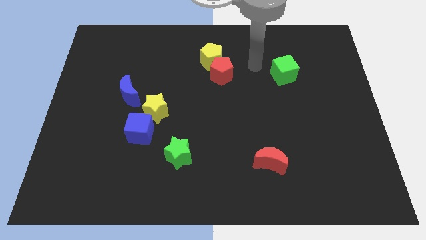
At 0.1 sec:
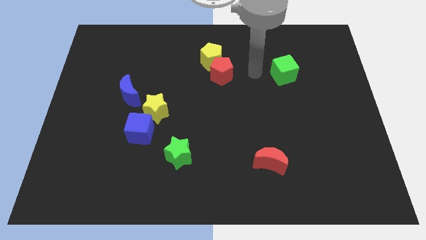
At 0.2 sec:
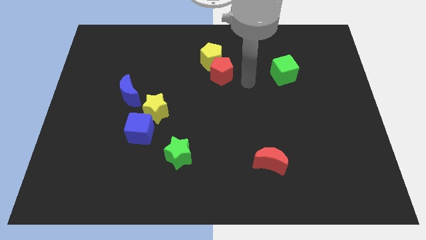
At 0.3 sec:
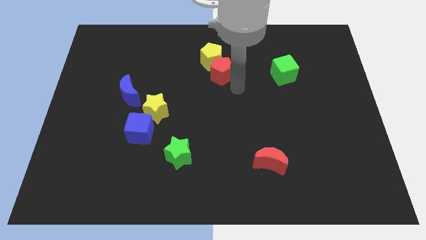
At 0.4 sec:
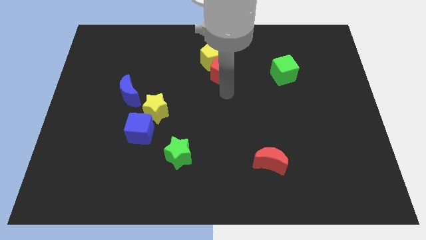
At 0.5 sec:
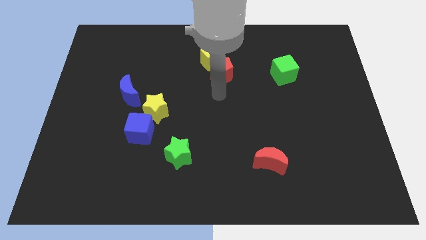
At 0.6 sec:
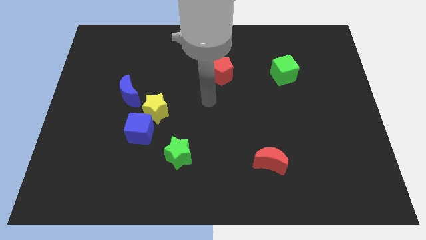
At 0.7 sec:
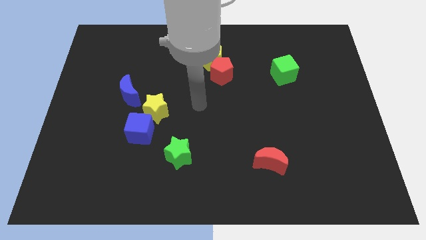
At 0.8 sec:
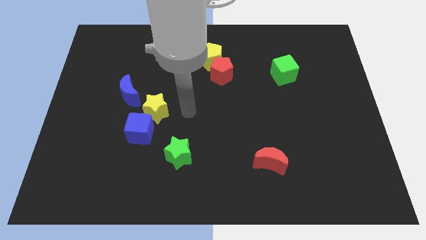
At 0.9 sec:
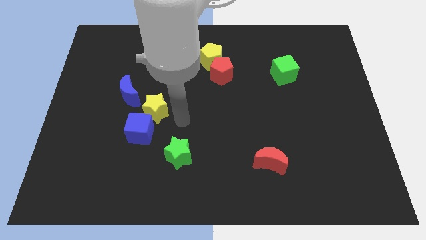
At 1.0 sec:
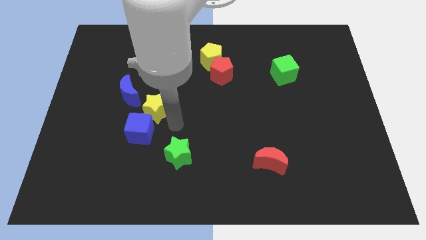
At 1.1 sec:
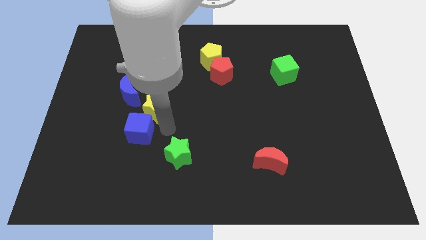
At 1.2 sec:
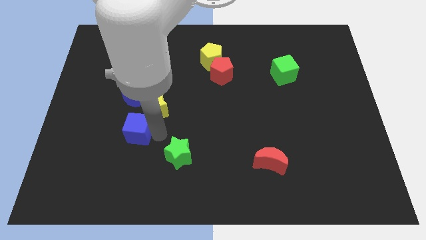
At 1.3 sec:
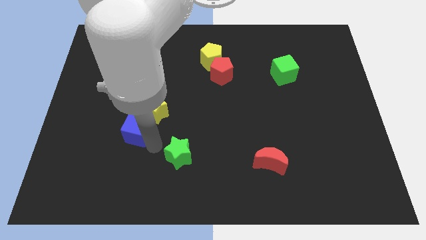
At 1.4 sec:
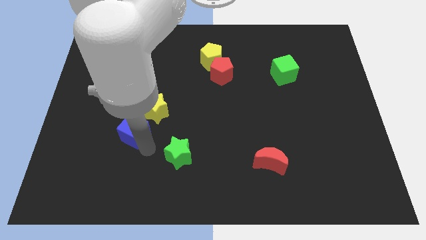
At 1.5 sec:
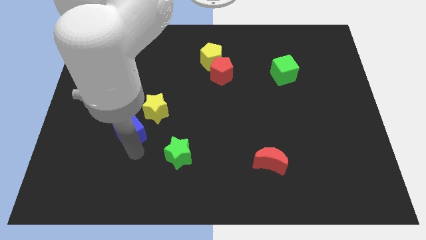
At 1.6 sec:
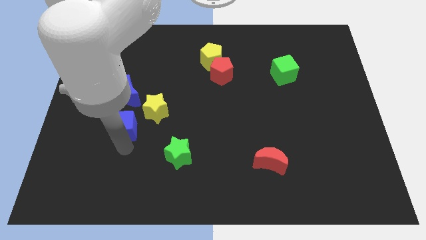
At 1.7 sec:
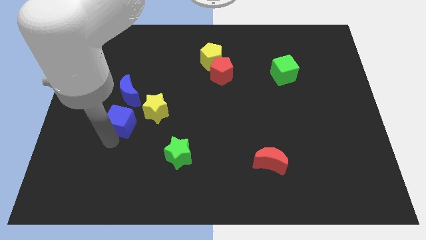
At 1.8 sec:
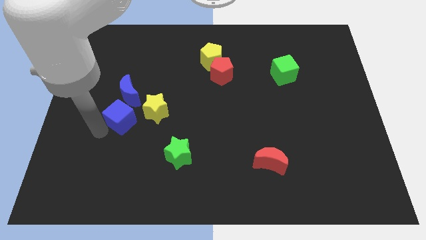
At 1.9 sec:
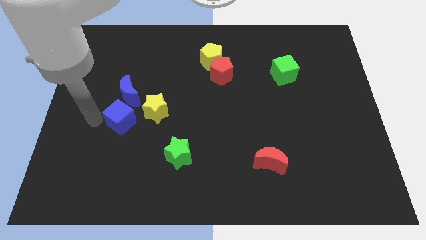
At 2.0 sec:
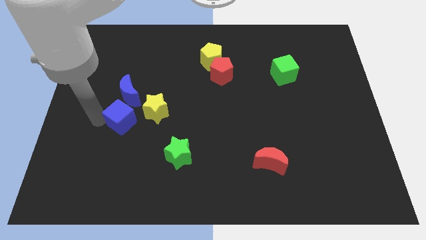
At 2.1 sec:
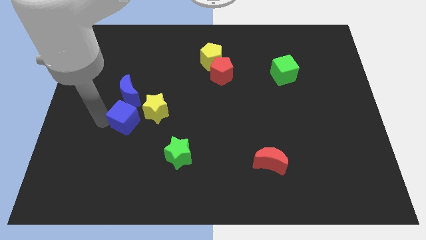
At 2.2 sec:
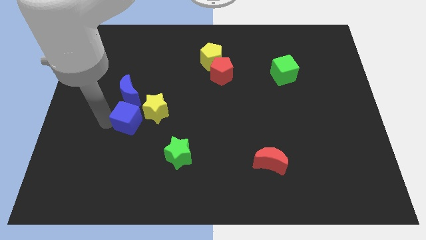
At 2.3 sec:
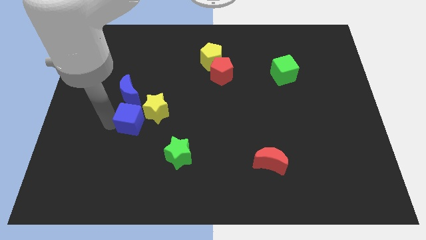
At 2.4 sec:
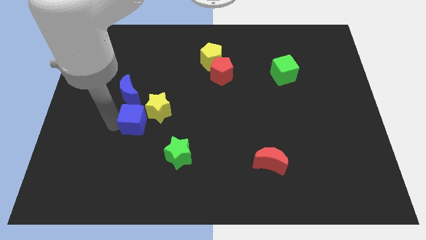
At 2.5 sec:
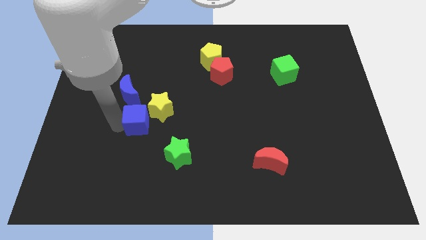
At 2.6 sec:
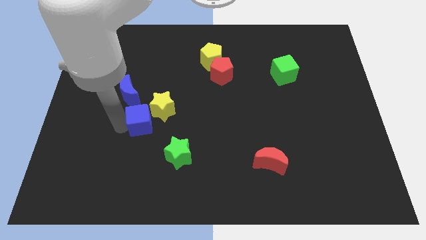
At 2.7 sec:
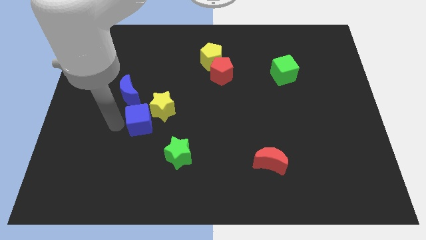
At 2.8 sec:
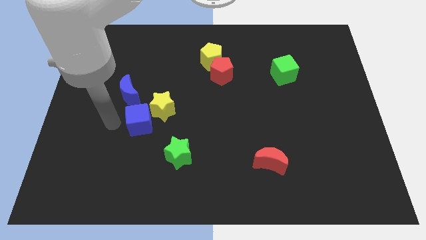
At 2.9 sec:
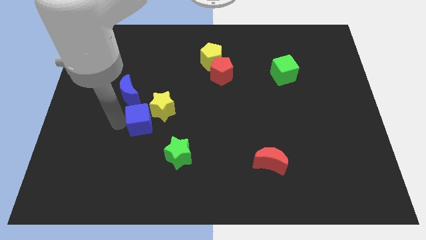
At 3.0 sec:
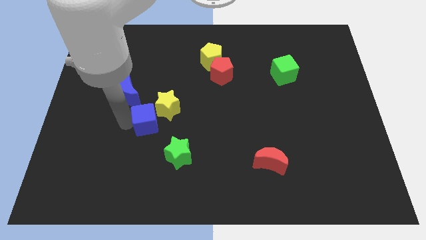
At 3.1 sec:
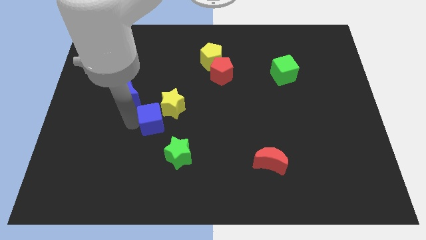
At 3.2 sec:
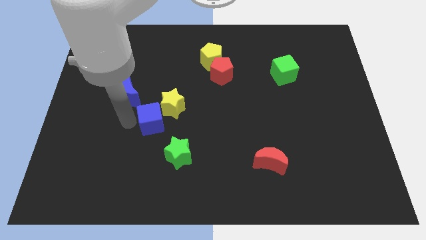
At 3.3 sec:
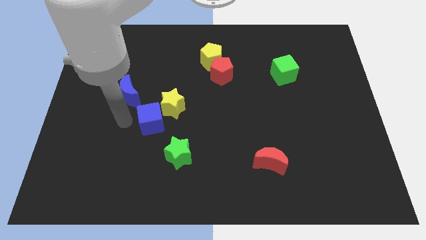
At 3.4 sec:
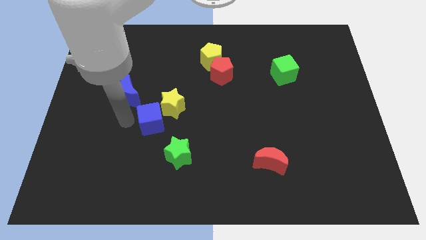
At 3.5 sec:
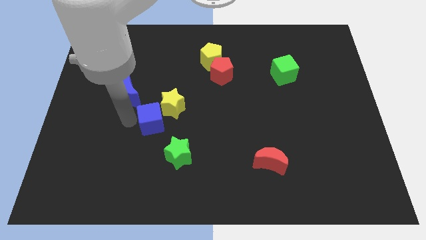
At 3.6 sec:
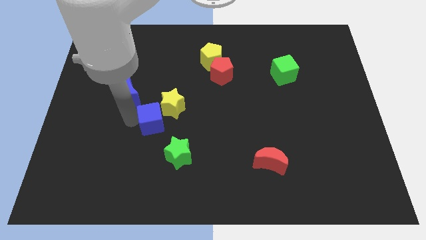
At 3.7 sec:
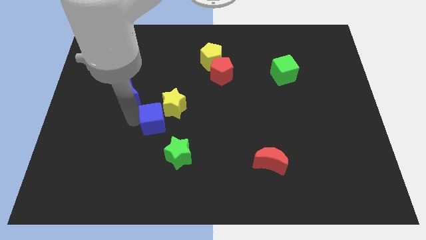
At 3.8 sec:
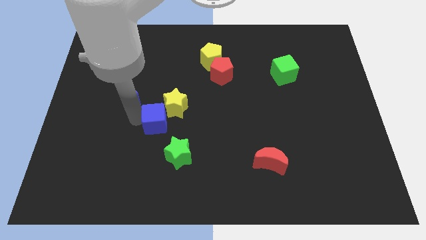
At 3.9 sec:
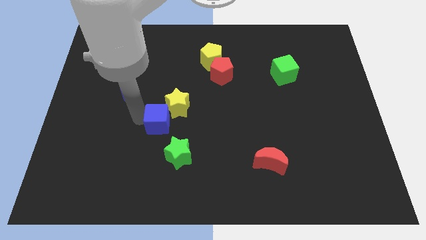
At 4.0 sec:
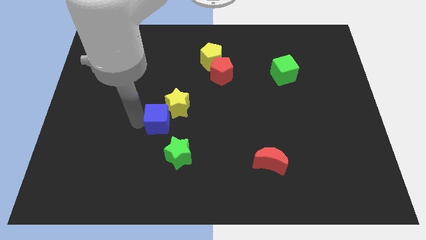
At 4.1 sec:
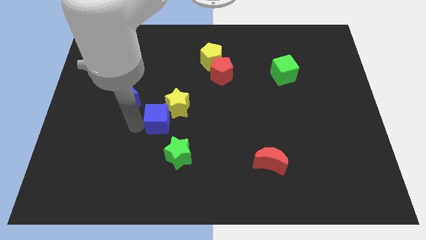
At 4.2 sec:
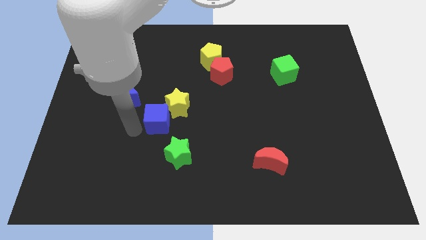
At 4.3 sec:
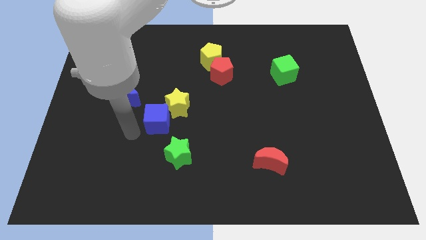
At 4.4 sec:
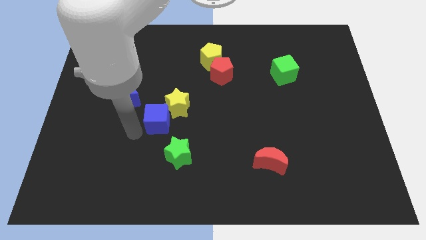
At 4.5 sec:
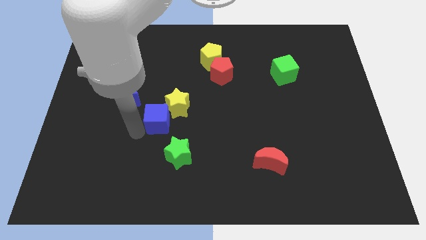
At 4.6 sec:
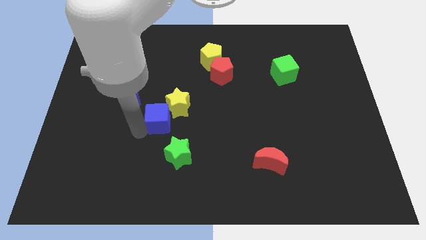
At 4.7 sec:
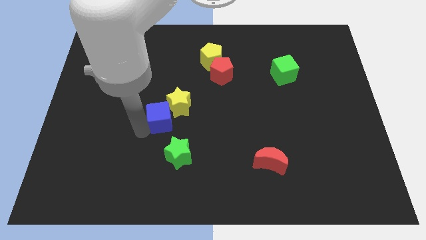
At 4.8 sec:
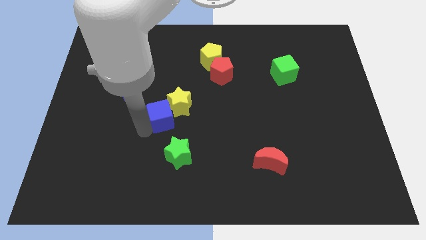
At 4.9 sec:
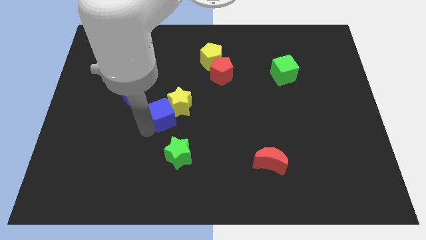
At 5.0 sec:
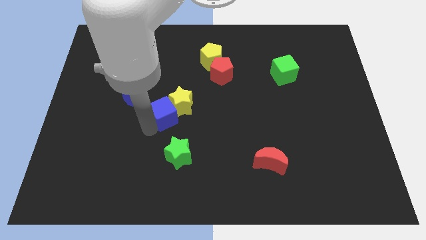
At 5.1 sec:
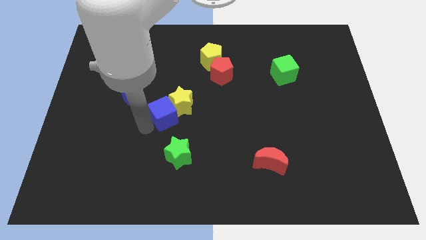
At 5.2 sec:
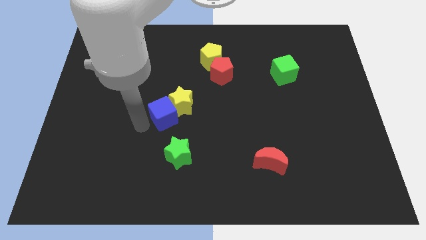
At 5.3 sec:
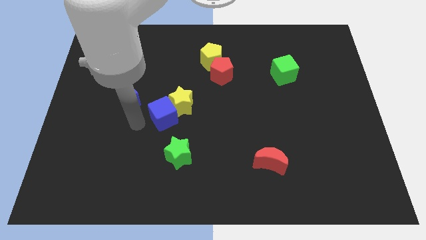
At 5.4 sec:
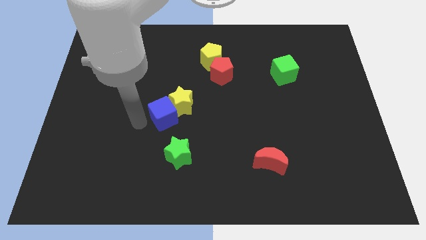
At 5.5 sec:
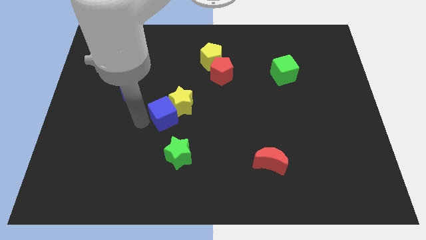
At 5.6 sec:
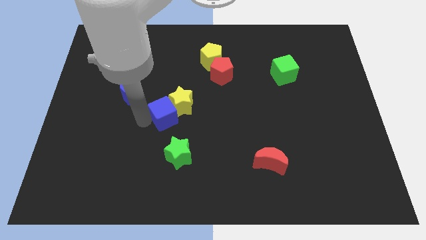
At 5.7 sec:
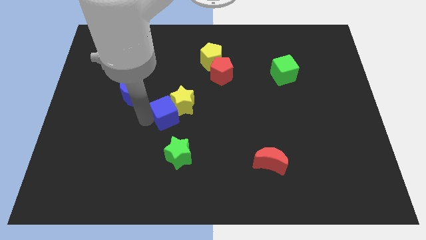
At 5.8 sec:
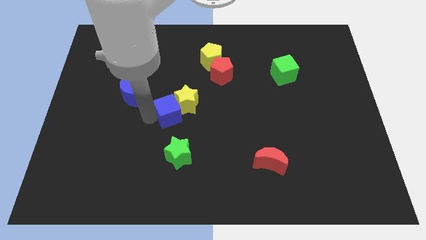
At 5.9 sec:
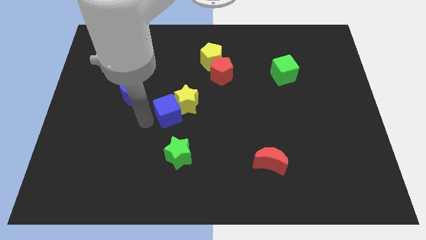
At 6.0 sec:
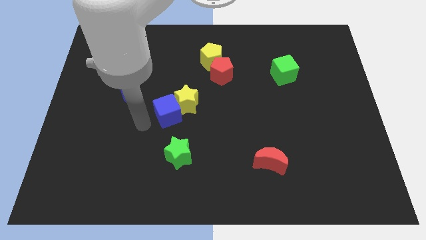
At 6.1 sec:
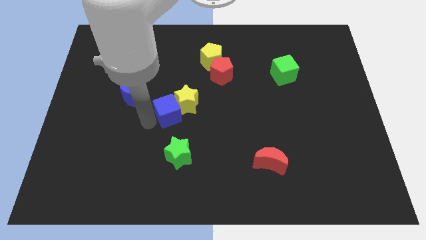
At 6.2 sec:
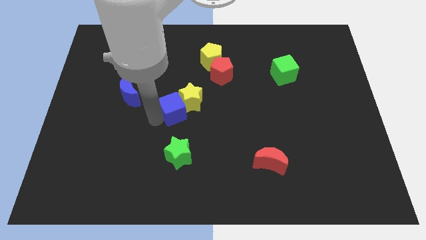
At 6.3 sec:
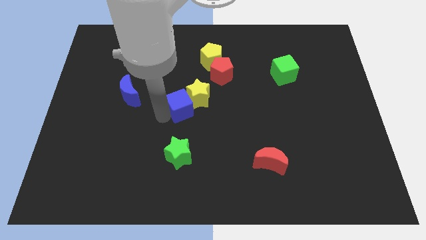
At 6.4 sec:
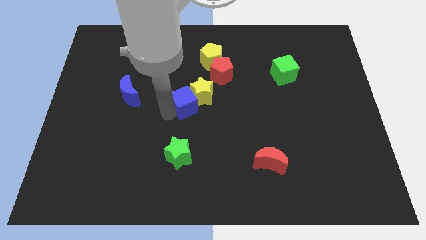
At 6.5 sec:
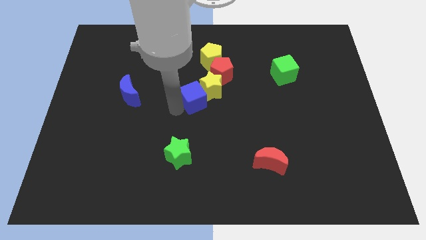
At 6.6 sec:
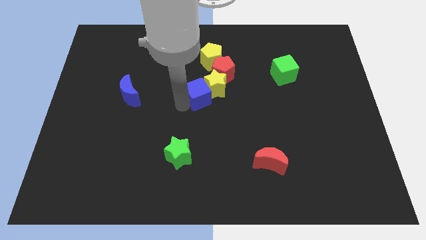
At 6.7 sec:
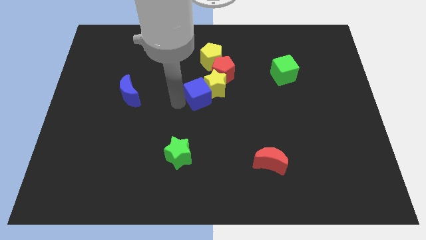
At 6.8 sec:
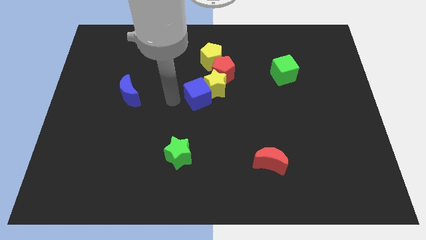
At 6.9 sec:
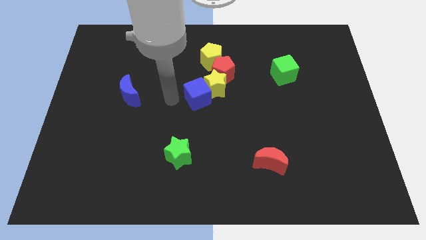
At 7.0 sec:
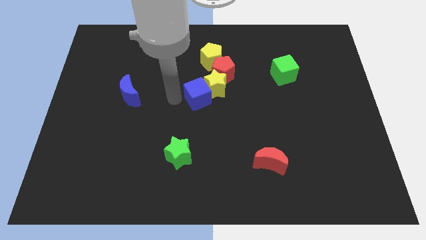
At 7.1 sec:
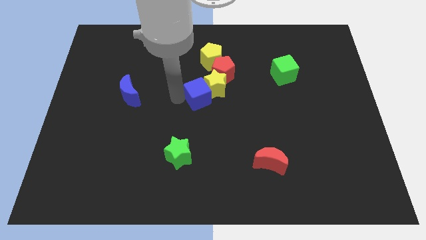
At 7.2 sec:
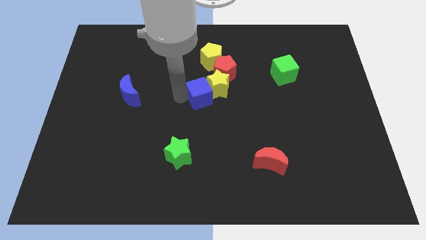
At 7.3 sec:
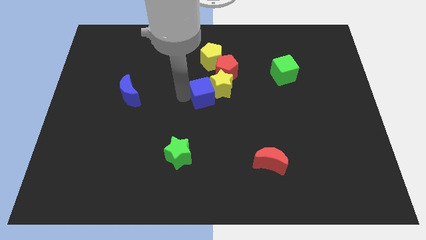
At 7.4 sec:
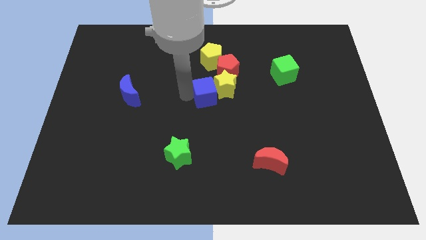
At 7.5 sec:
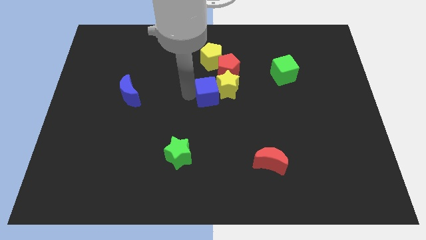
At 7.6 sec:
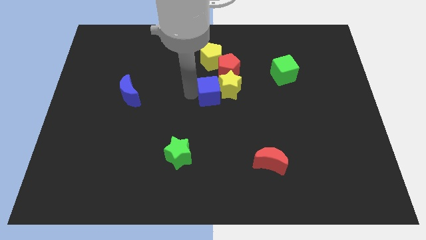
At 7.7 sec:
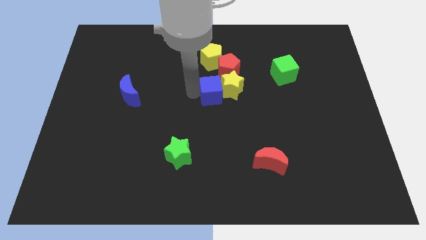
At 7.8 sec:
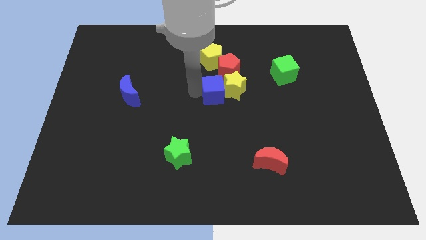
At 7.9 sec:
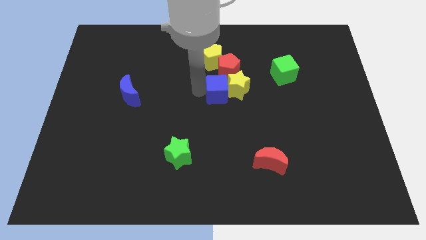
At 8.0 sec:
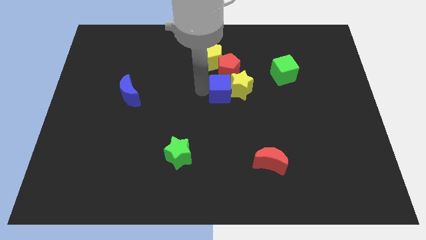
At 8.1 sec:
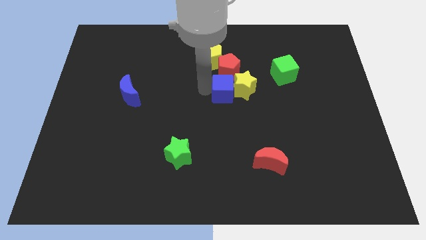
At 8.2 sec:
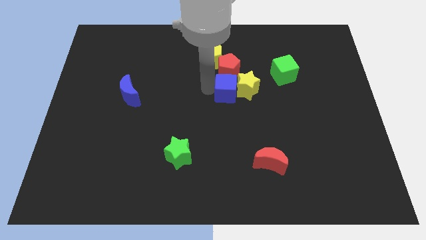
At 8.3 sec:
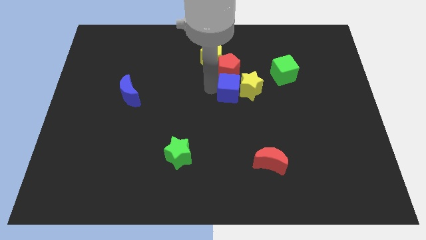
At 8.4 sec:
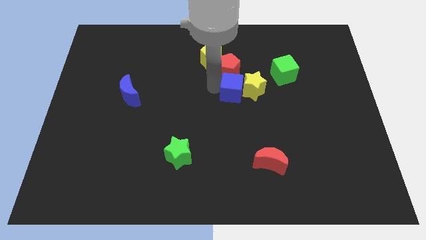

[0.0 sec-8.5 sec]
slide the blue cube to the bottom right side of the yellow pentagon
